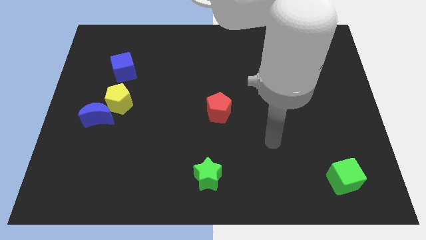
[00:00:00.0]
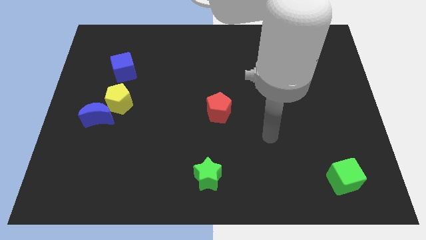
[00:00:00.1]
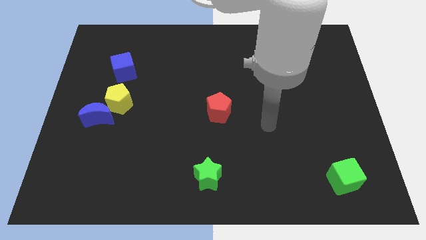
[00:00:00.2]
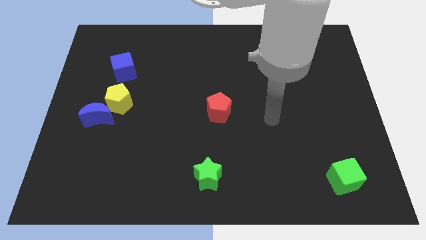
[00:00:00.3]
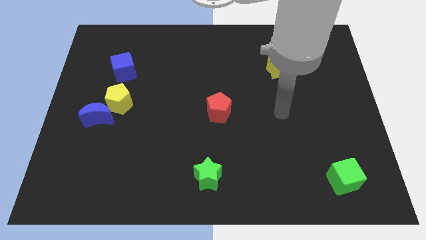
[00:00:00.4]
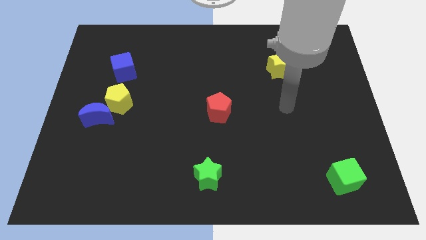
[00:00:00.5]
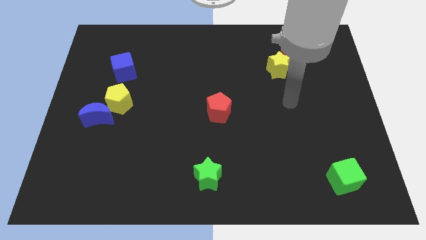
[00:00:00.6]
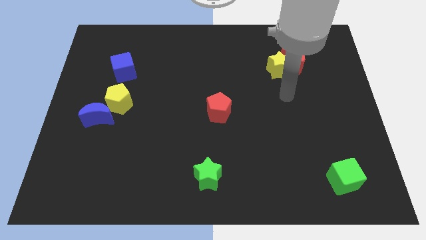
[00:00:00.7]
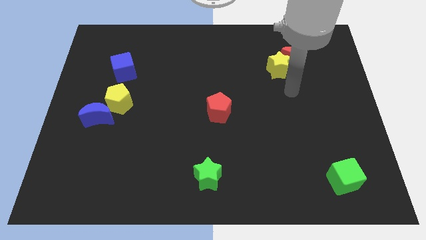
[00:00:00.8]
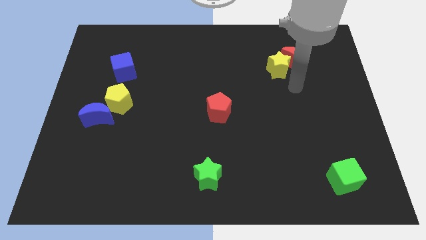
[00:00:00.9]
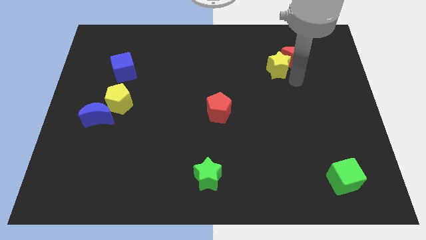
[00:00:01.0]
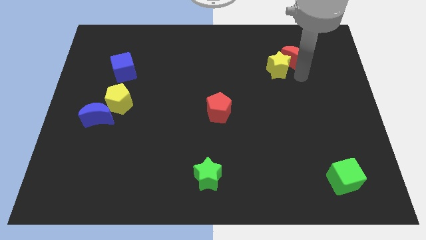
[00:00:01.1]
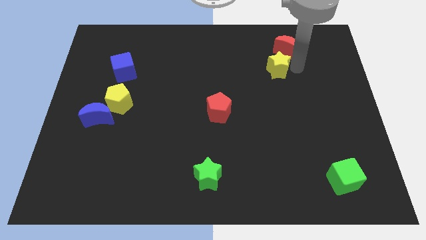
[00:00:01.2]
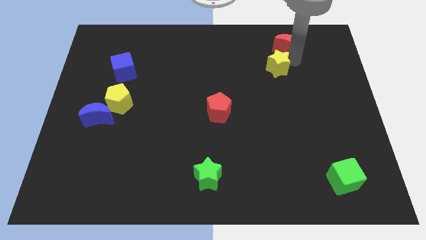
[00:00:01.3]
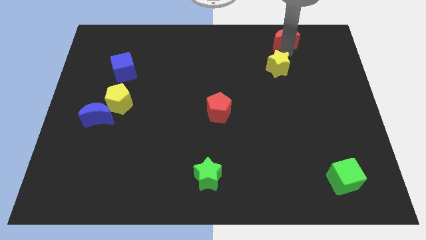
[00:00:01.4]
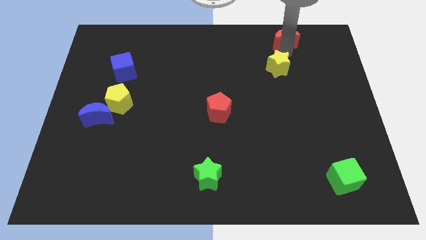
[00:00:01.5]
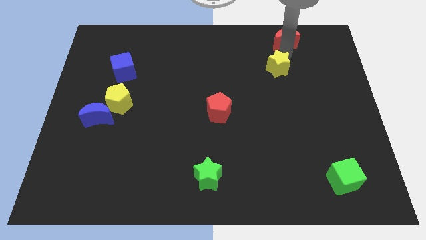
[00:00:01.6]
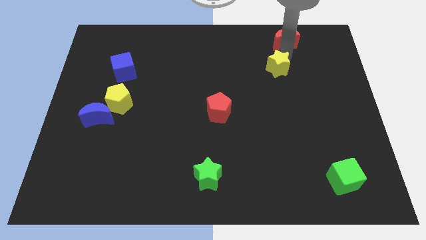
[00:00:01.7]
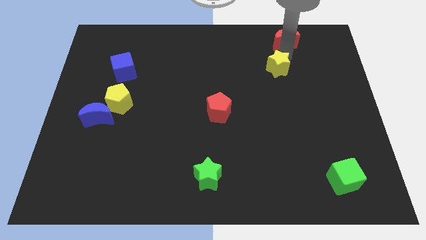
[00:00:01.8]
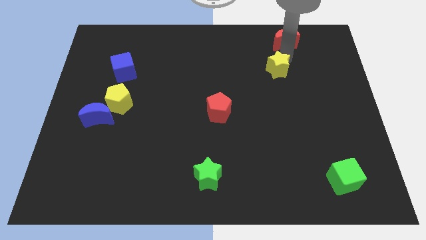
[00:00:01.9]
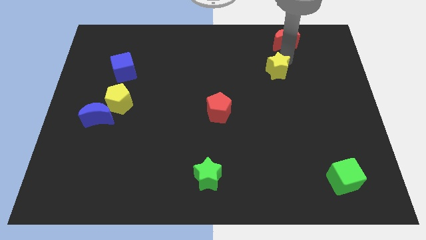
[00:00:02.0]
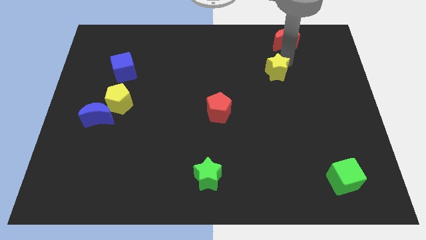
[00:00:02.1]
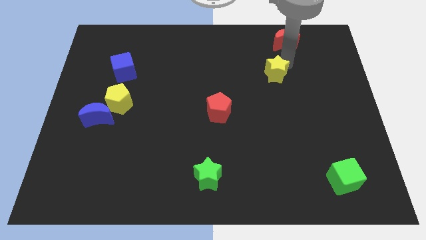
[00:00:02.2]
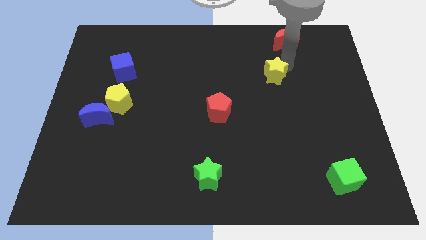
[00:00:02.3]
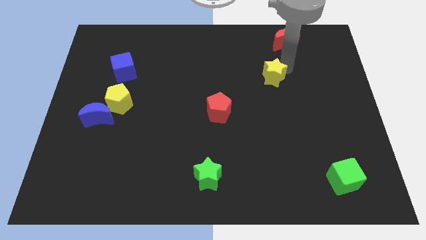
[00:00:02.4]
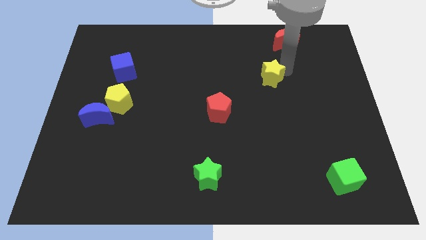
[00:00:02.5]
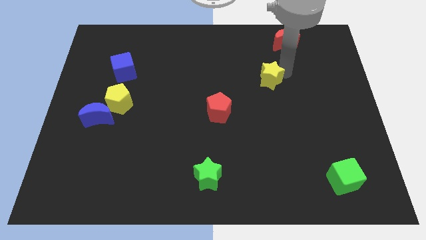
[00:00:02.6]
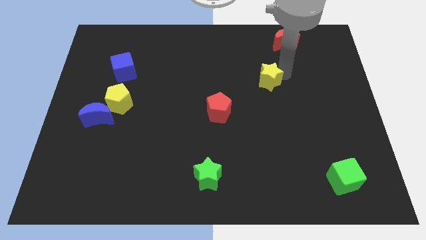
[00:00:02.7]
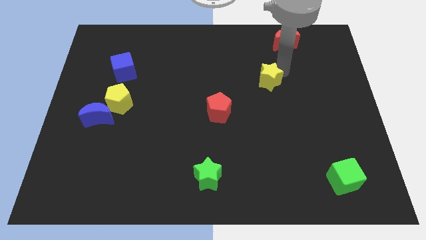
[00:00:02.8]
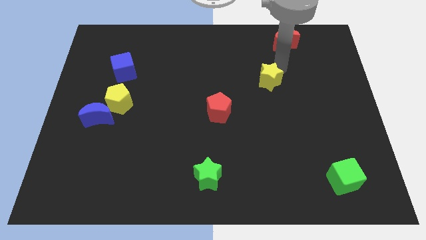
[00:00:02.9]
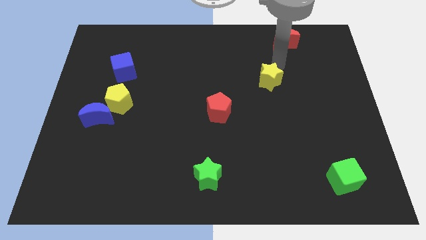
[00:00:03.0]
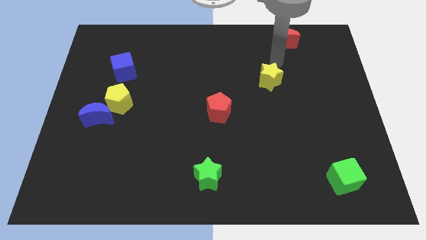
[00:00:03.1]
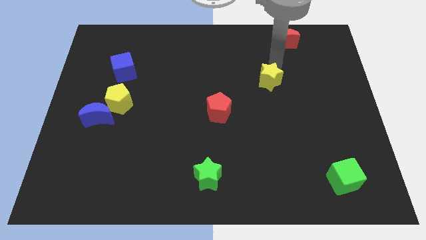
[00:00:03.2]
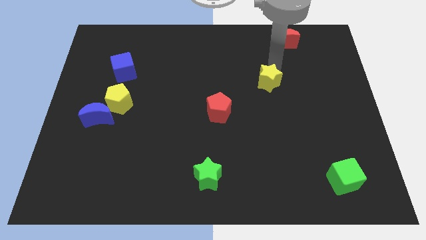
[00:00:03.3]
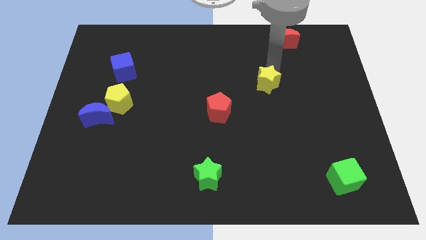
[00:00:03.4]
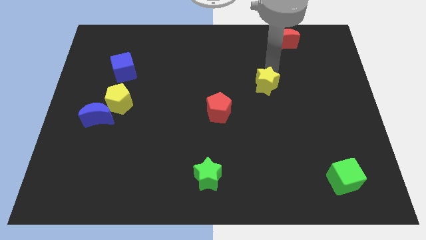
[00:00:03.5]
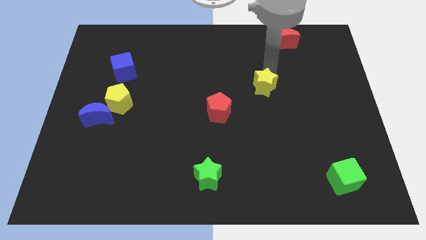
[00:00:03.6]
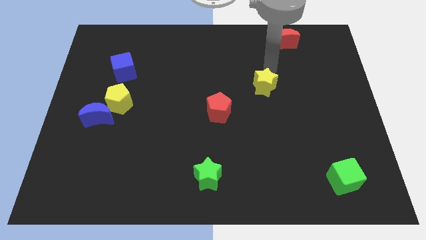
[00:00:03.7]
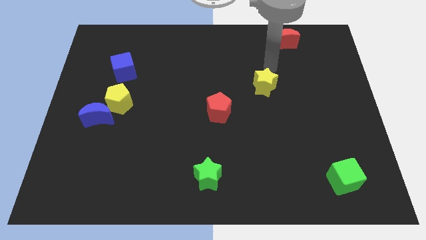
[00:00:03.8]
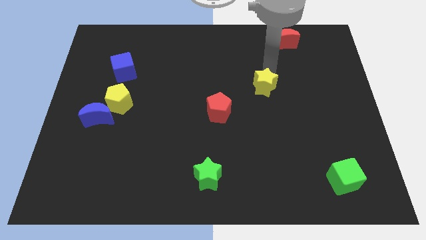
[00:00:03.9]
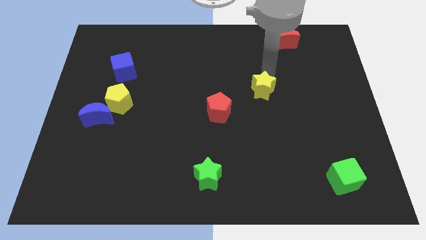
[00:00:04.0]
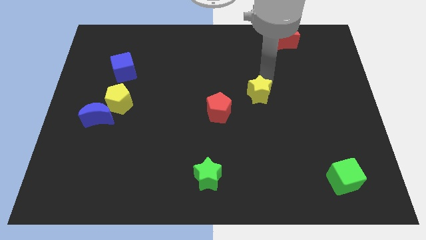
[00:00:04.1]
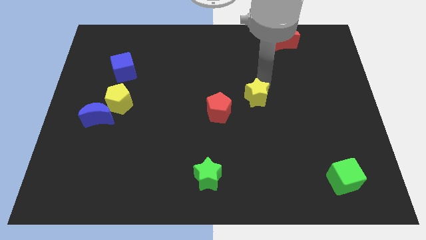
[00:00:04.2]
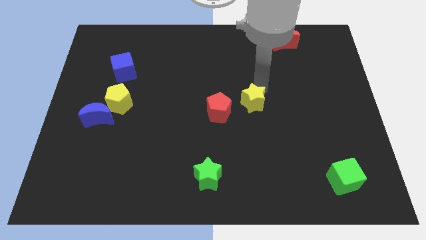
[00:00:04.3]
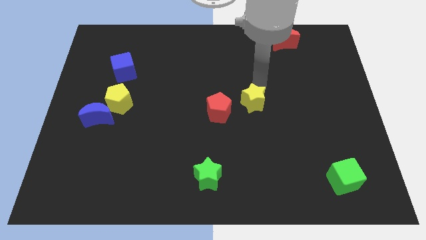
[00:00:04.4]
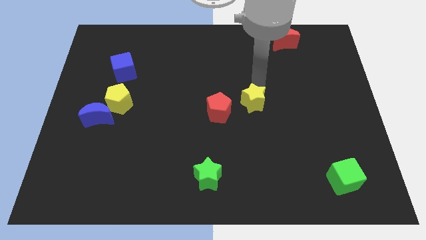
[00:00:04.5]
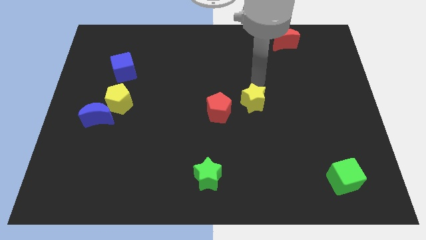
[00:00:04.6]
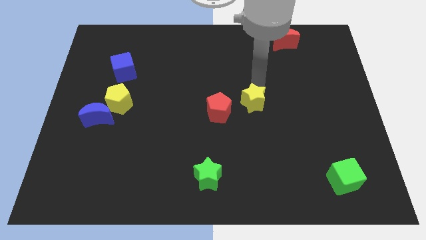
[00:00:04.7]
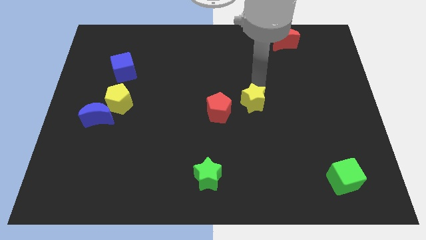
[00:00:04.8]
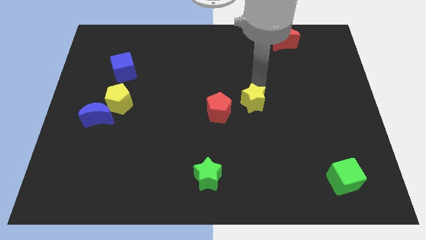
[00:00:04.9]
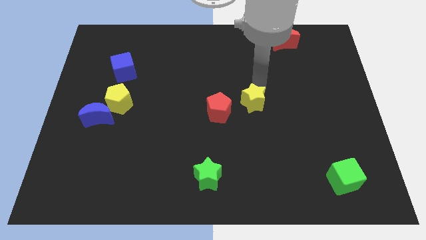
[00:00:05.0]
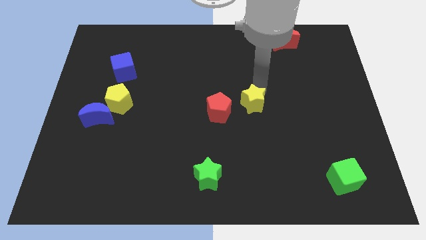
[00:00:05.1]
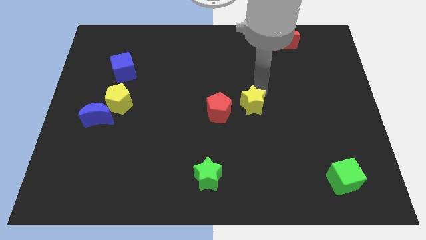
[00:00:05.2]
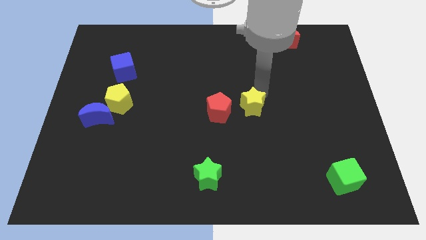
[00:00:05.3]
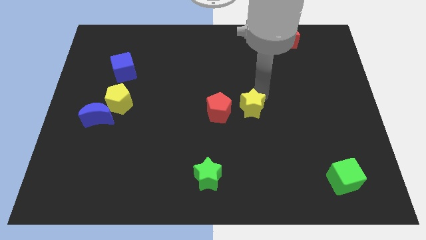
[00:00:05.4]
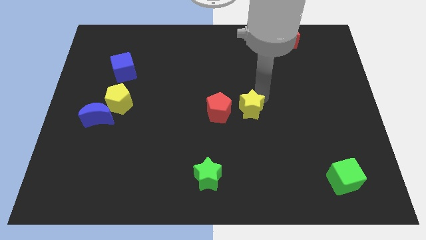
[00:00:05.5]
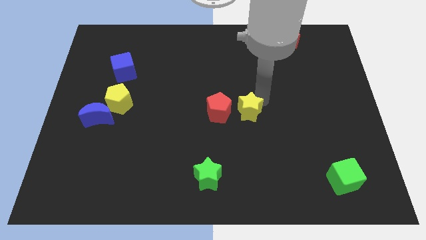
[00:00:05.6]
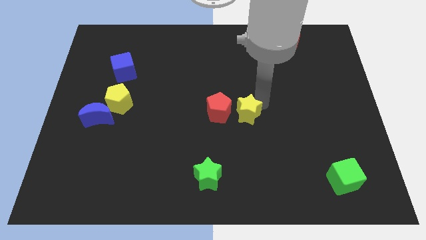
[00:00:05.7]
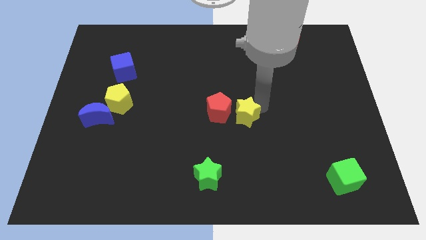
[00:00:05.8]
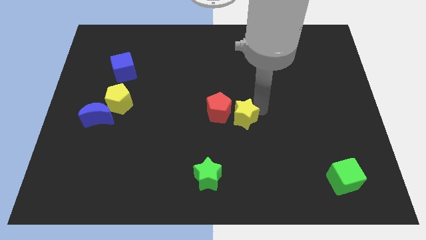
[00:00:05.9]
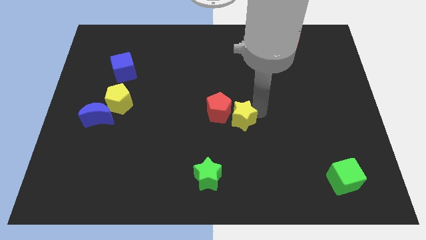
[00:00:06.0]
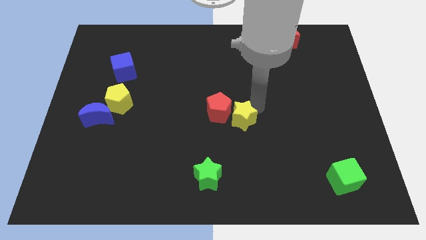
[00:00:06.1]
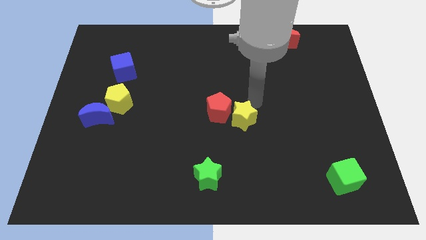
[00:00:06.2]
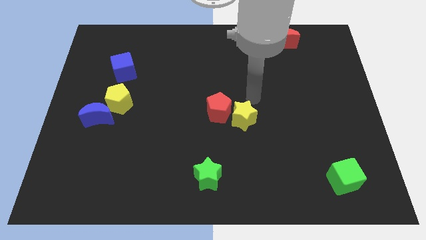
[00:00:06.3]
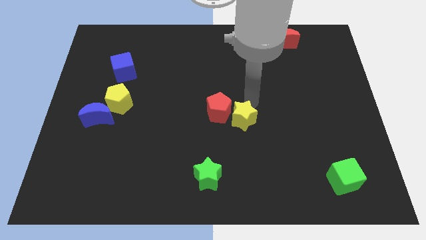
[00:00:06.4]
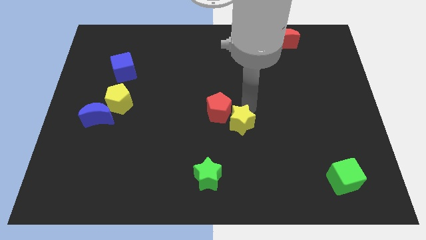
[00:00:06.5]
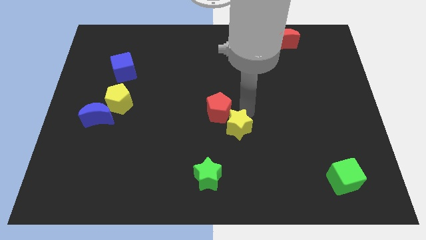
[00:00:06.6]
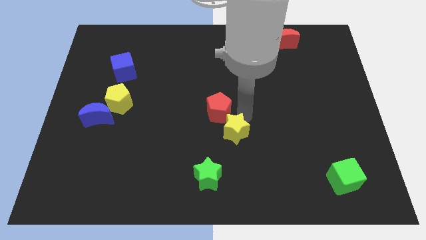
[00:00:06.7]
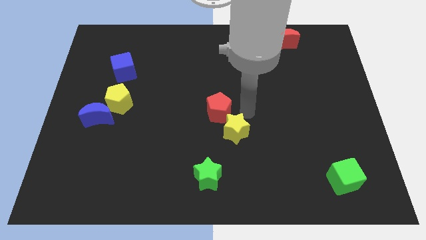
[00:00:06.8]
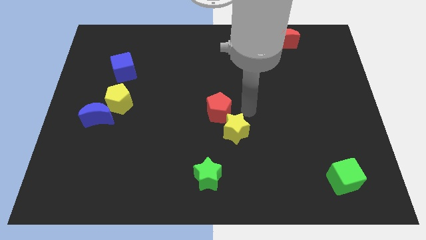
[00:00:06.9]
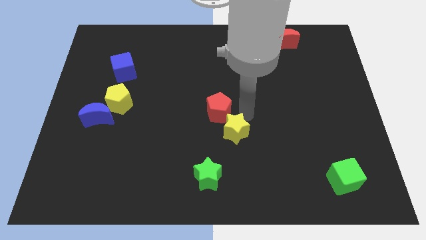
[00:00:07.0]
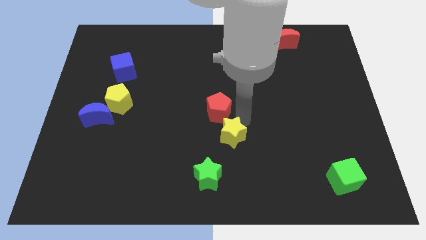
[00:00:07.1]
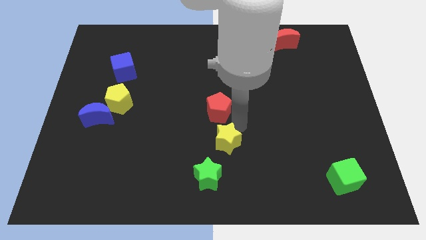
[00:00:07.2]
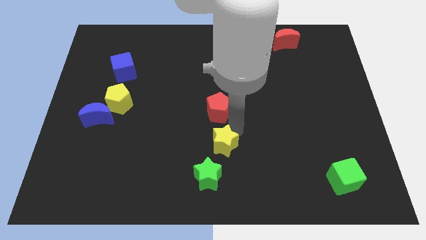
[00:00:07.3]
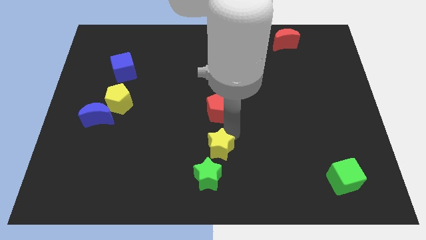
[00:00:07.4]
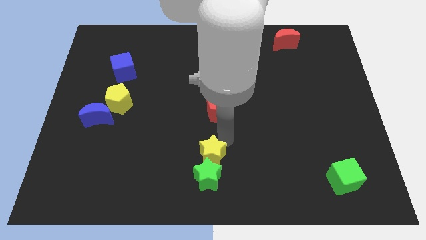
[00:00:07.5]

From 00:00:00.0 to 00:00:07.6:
move the yellow star close to the green star

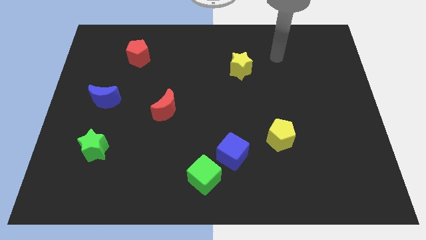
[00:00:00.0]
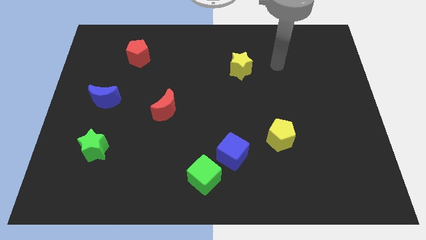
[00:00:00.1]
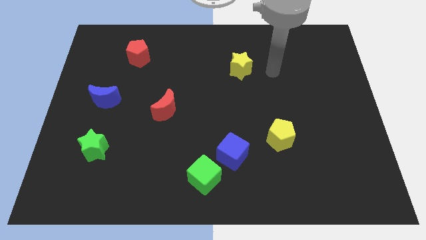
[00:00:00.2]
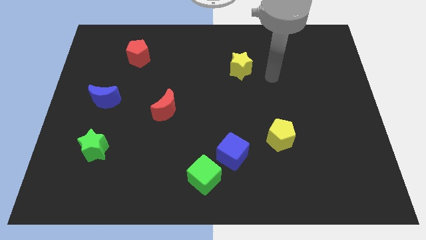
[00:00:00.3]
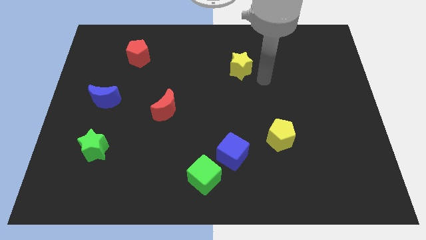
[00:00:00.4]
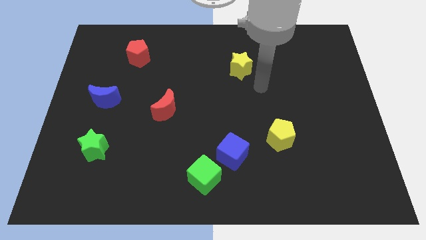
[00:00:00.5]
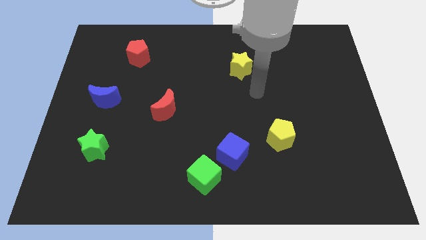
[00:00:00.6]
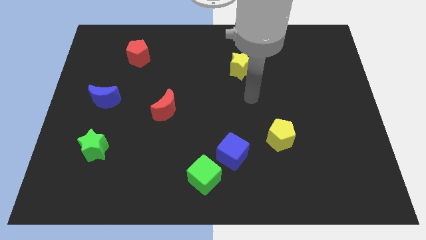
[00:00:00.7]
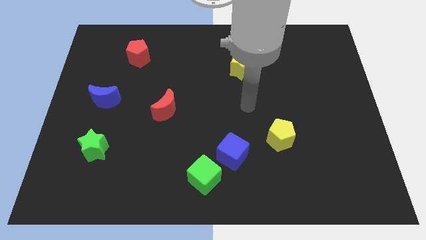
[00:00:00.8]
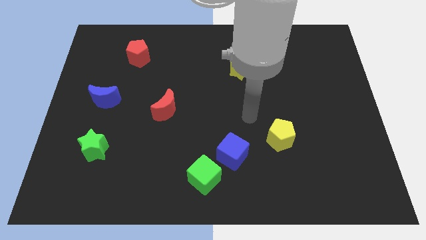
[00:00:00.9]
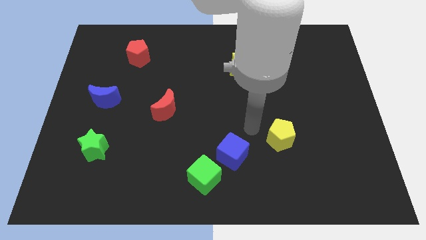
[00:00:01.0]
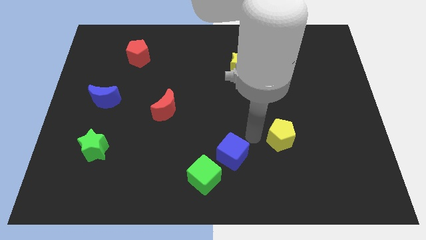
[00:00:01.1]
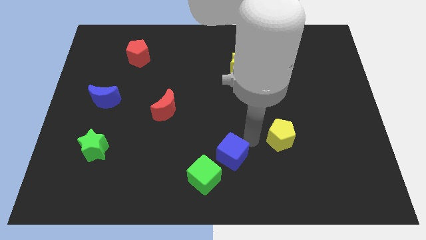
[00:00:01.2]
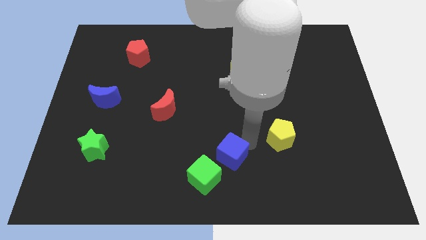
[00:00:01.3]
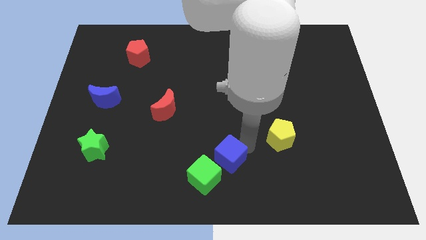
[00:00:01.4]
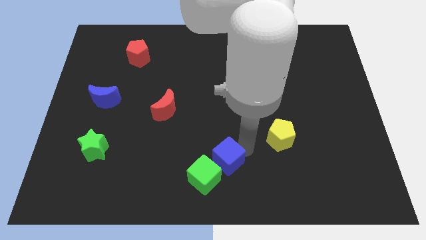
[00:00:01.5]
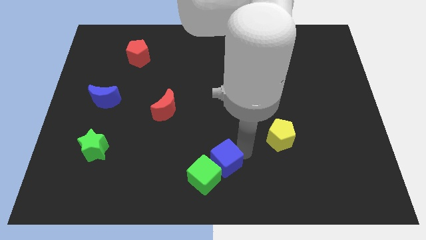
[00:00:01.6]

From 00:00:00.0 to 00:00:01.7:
put the blue cube to the green cube
